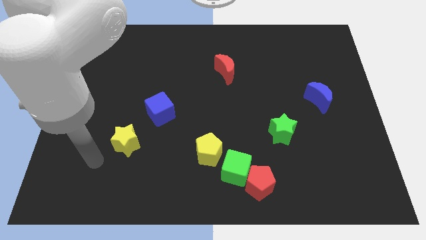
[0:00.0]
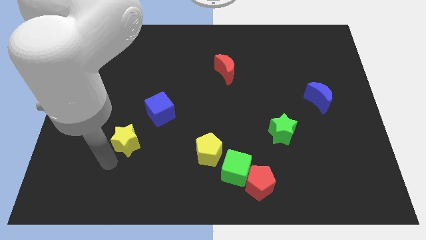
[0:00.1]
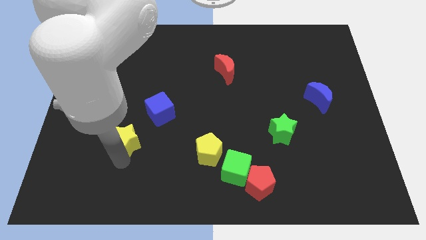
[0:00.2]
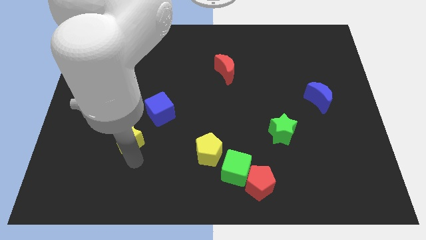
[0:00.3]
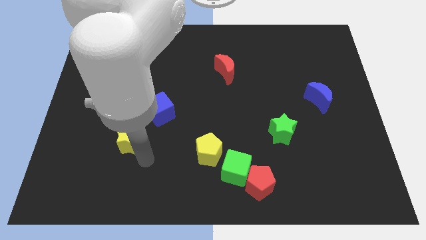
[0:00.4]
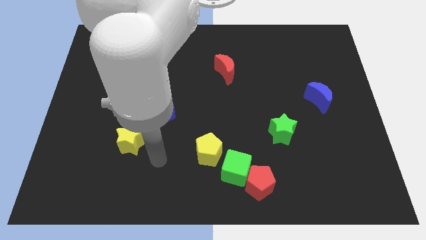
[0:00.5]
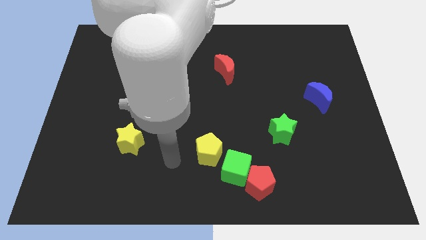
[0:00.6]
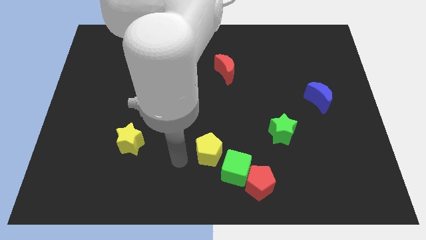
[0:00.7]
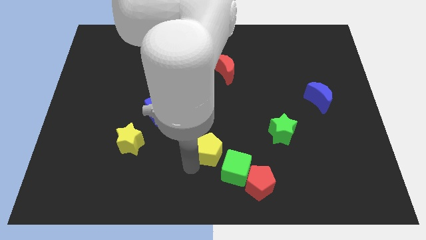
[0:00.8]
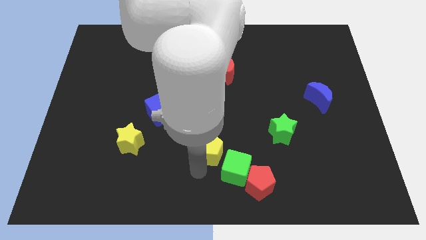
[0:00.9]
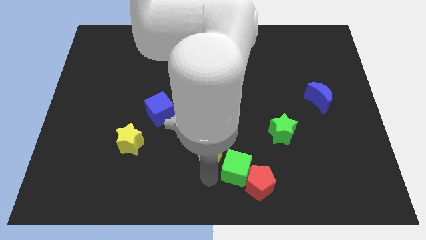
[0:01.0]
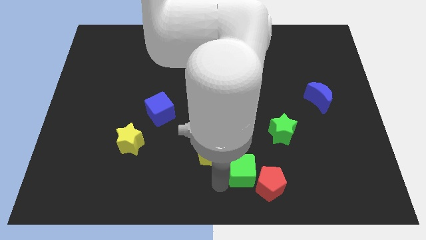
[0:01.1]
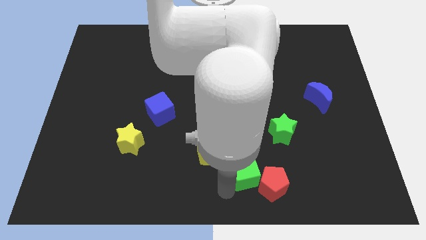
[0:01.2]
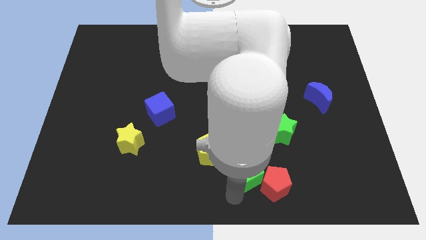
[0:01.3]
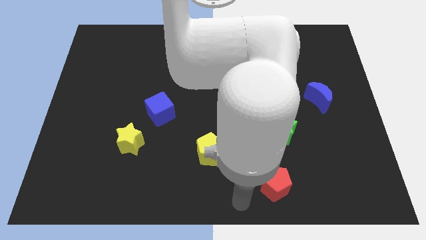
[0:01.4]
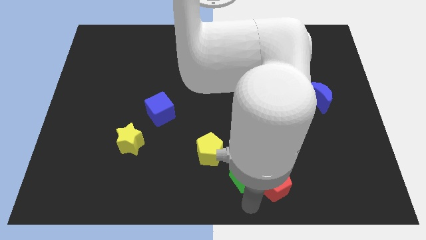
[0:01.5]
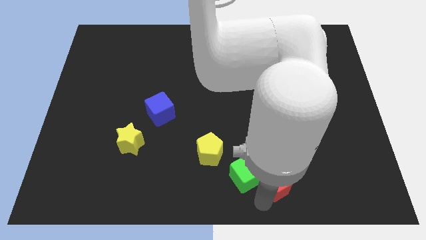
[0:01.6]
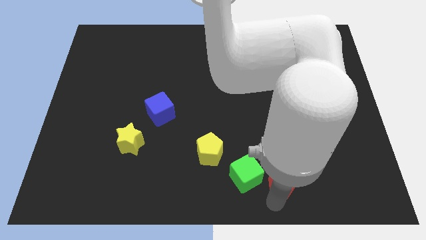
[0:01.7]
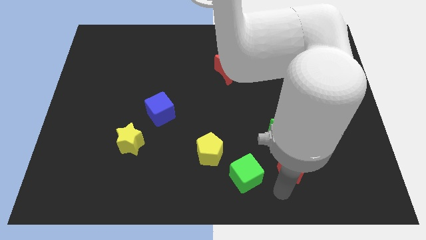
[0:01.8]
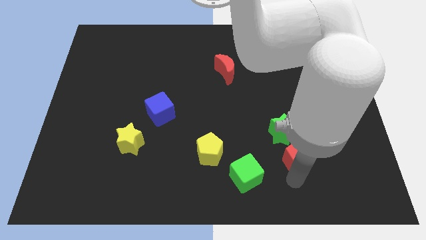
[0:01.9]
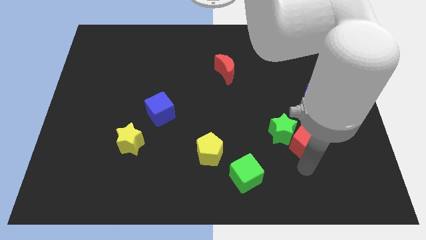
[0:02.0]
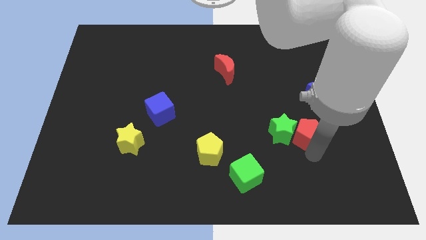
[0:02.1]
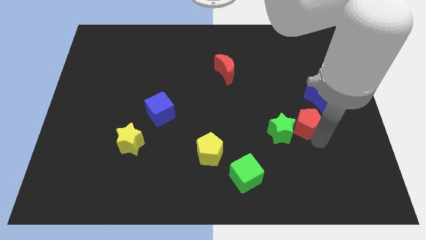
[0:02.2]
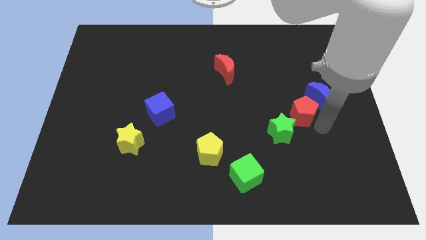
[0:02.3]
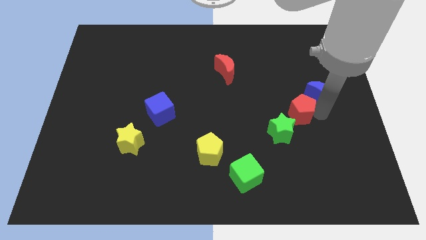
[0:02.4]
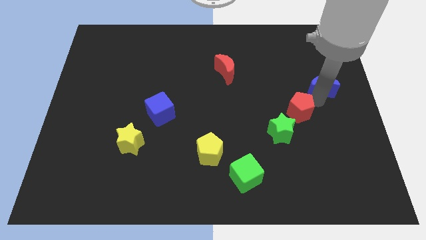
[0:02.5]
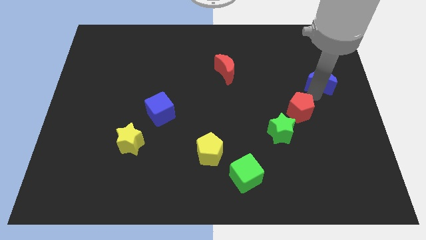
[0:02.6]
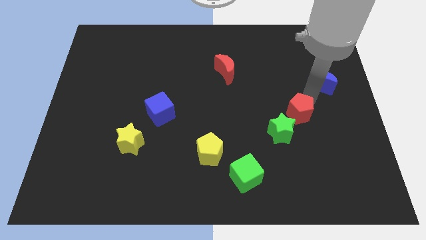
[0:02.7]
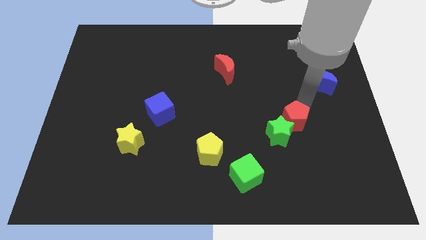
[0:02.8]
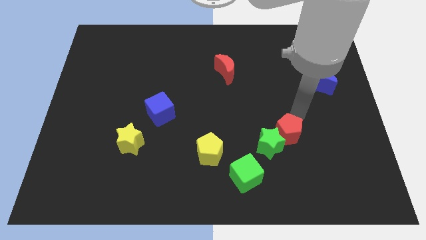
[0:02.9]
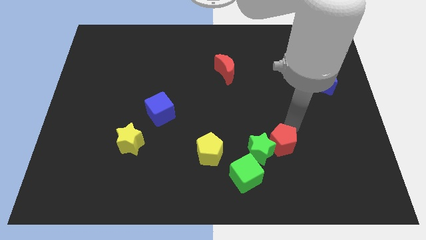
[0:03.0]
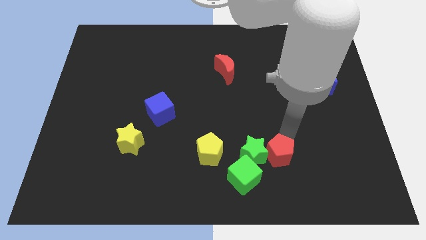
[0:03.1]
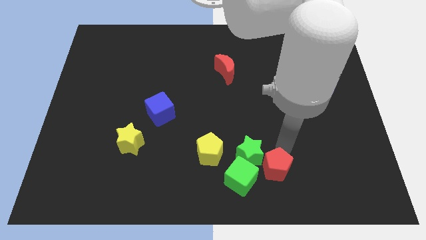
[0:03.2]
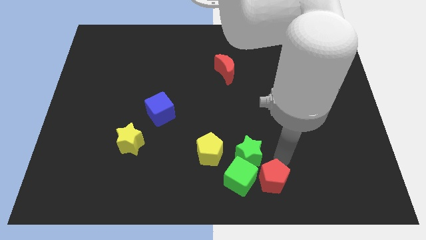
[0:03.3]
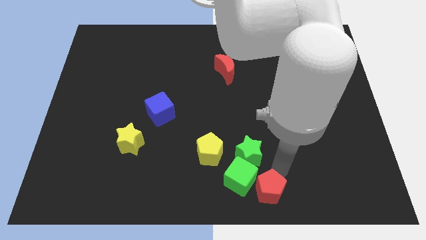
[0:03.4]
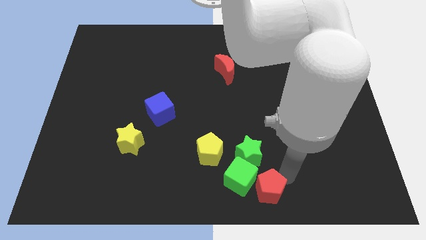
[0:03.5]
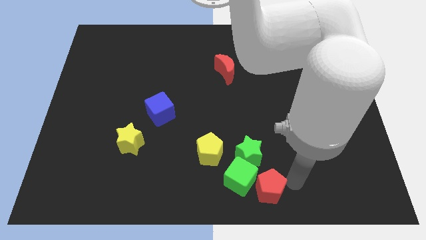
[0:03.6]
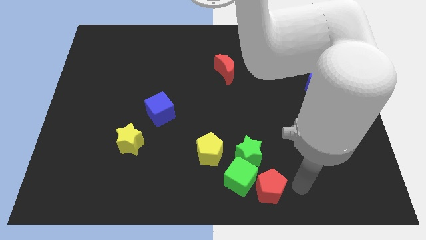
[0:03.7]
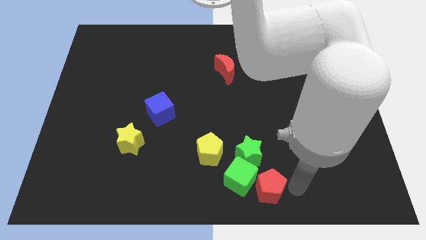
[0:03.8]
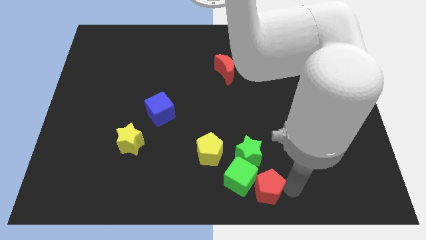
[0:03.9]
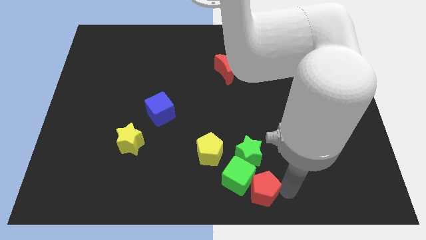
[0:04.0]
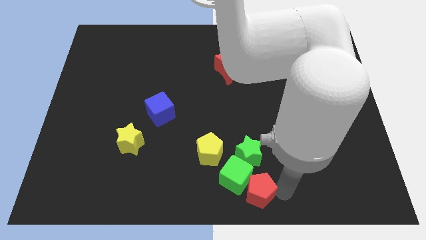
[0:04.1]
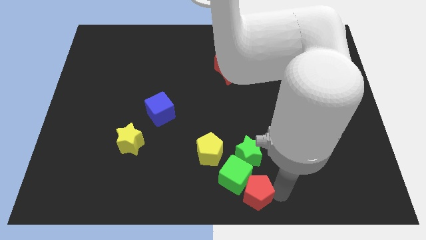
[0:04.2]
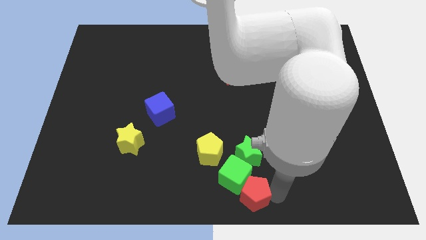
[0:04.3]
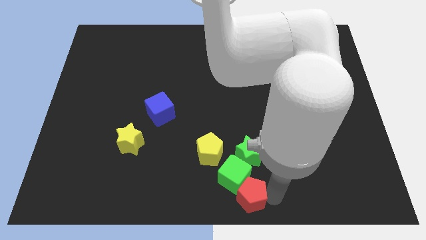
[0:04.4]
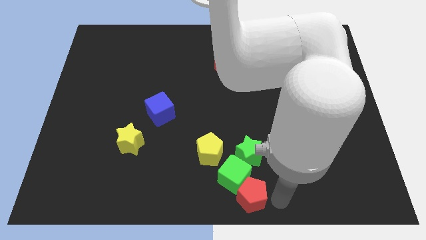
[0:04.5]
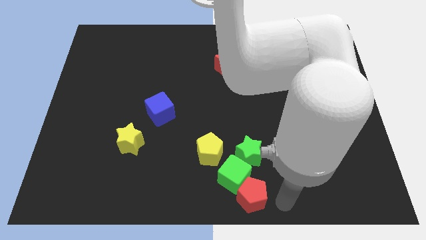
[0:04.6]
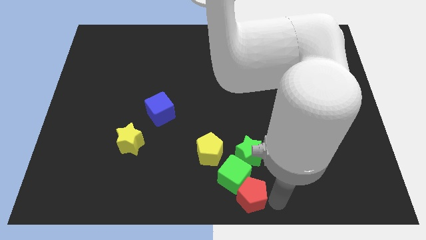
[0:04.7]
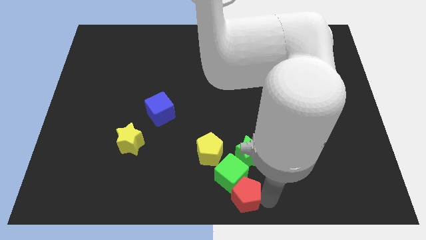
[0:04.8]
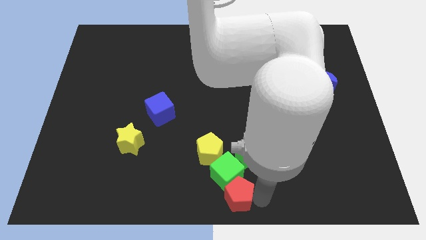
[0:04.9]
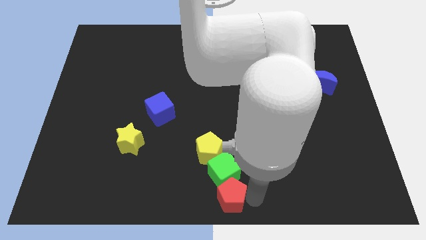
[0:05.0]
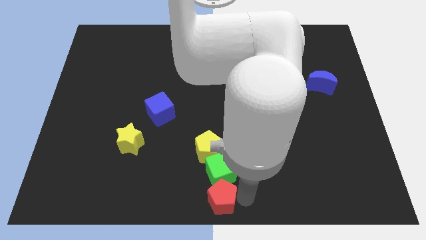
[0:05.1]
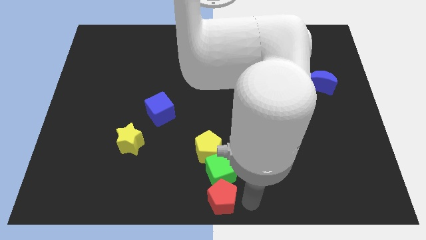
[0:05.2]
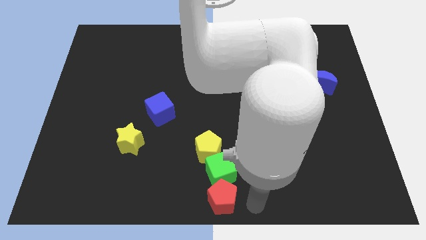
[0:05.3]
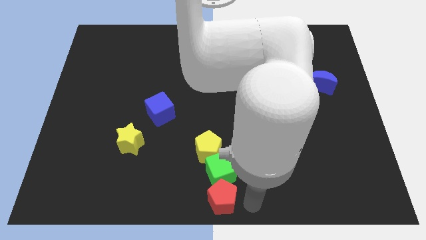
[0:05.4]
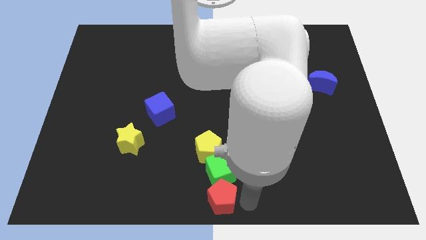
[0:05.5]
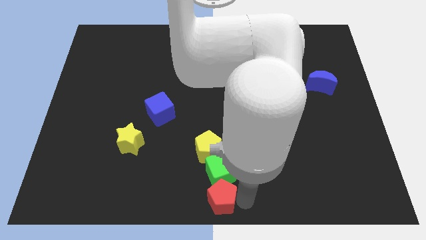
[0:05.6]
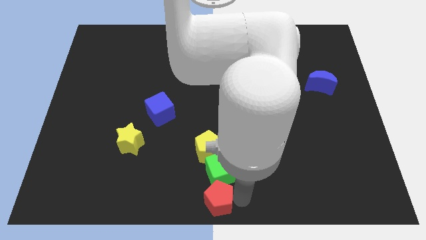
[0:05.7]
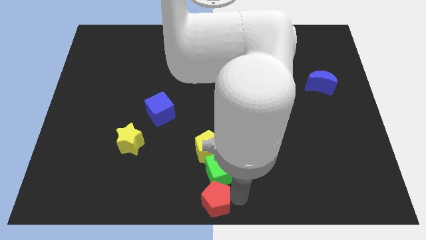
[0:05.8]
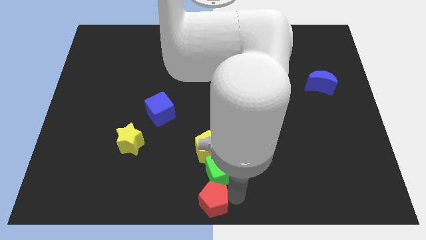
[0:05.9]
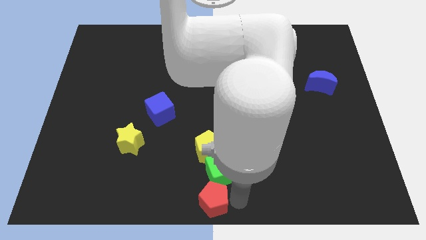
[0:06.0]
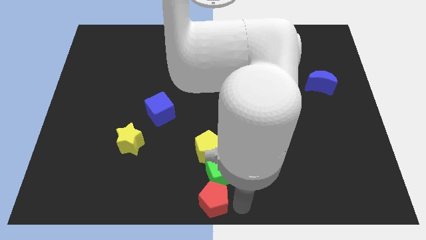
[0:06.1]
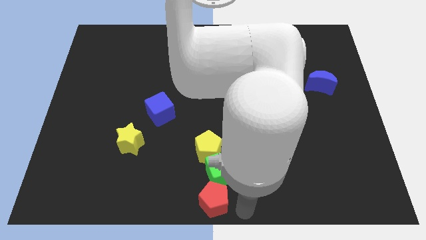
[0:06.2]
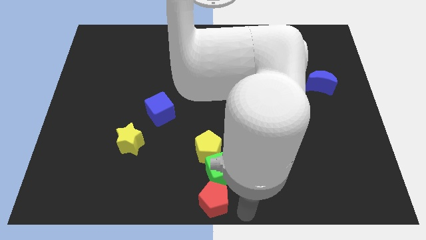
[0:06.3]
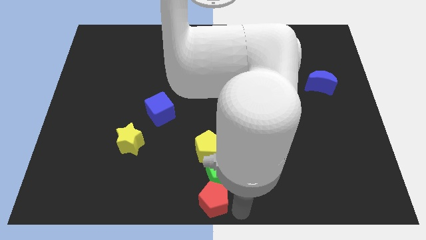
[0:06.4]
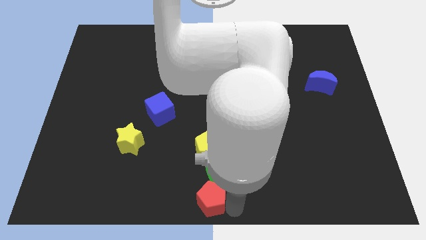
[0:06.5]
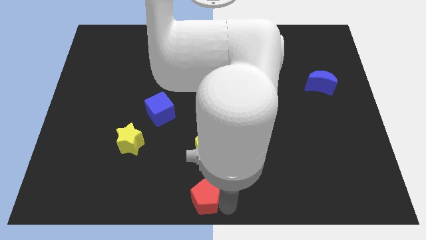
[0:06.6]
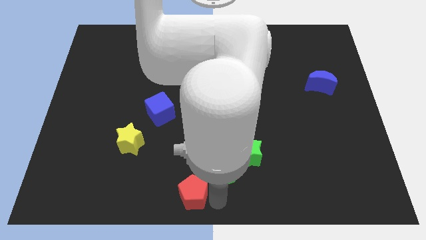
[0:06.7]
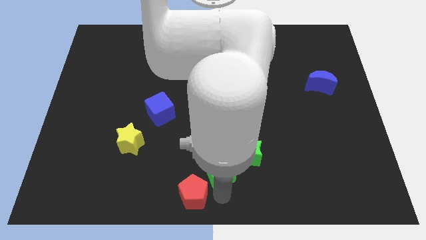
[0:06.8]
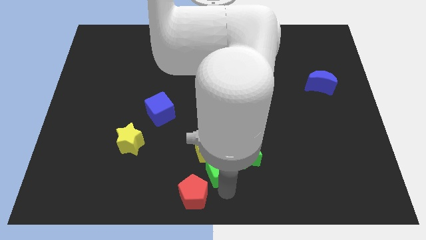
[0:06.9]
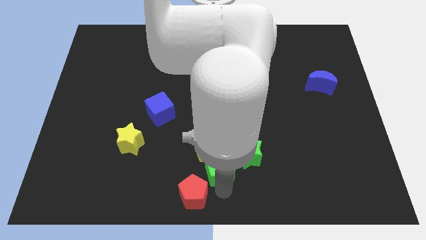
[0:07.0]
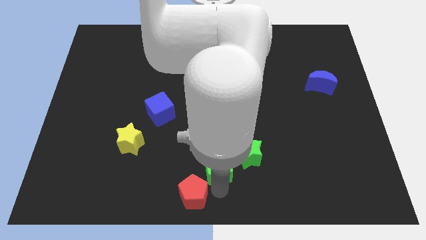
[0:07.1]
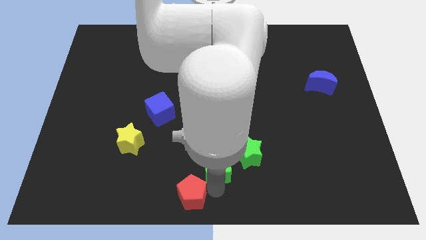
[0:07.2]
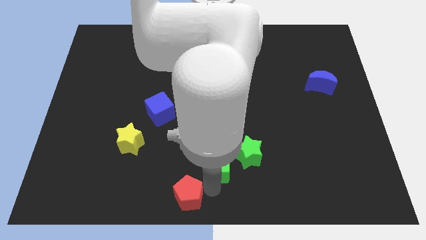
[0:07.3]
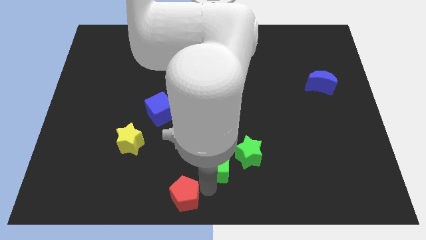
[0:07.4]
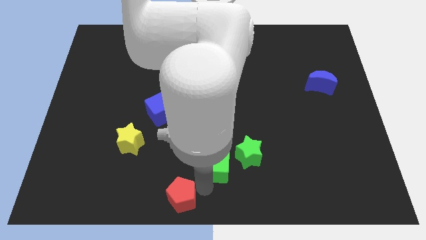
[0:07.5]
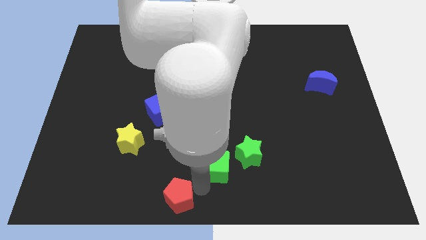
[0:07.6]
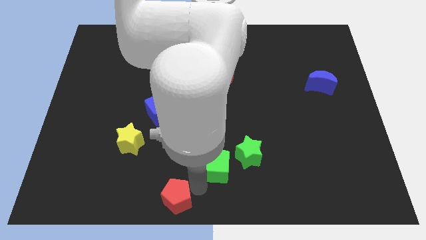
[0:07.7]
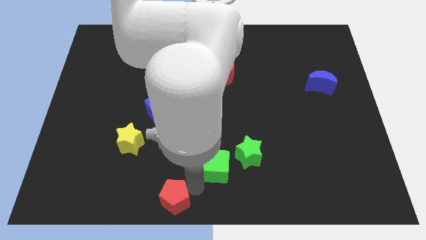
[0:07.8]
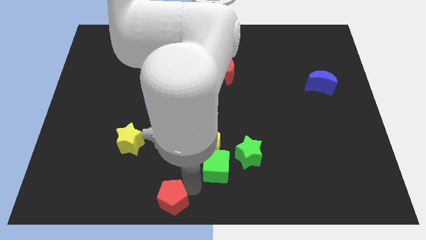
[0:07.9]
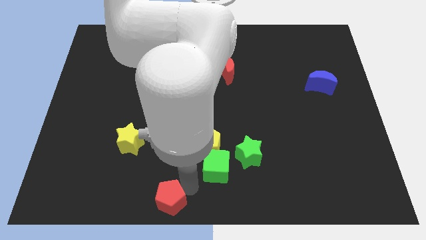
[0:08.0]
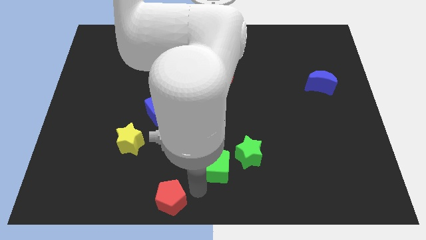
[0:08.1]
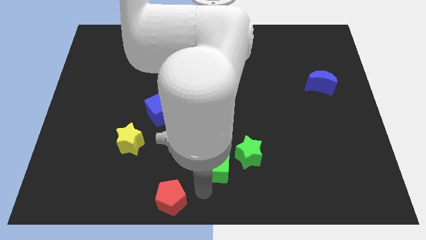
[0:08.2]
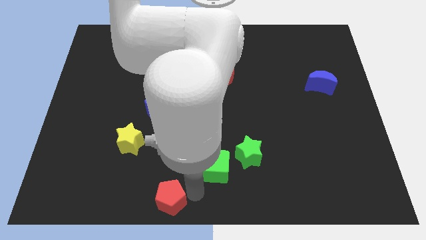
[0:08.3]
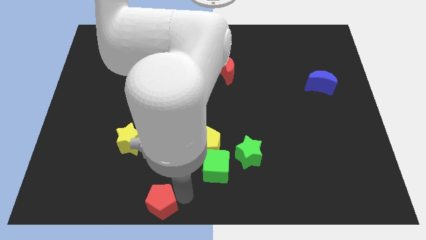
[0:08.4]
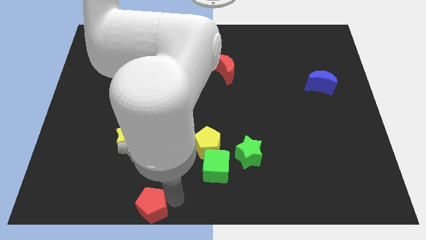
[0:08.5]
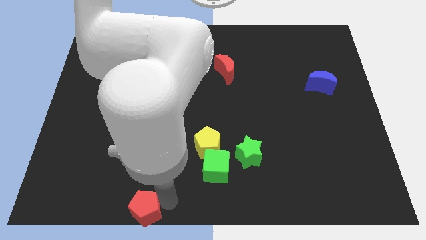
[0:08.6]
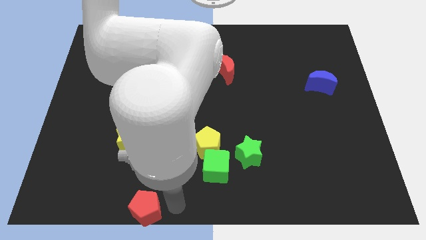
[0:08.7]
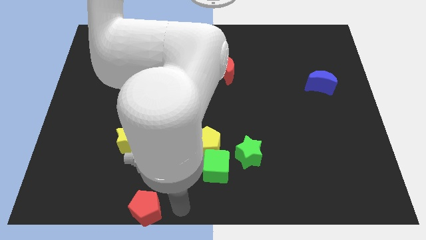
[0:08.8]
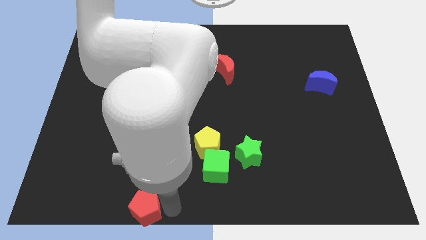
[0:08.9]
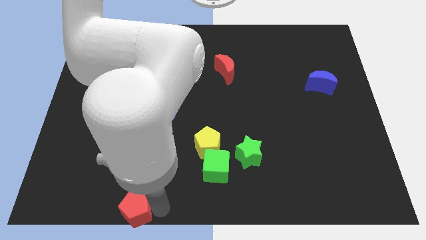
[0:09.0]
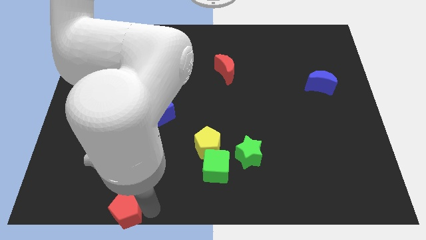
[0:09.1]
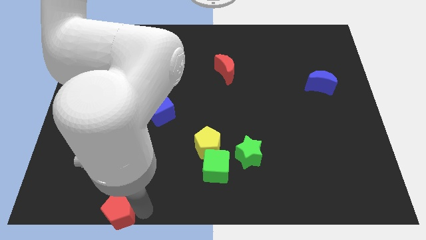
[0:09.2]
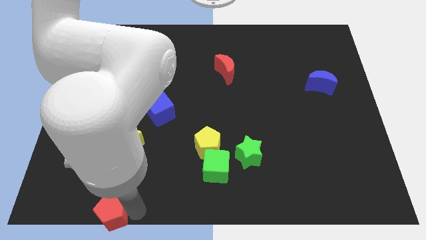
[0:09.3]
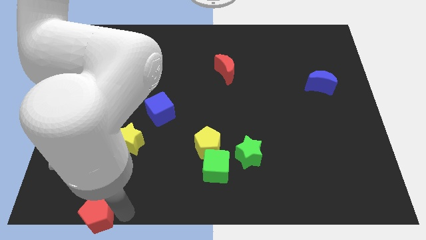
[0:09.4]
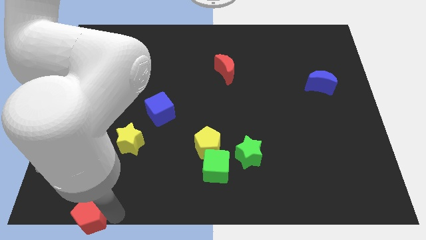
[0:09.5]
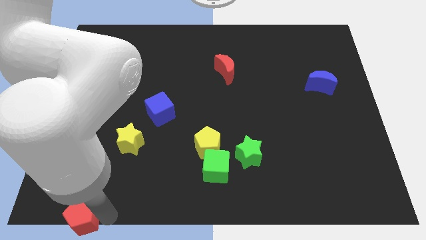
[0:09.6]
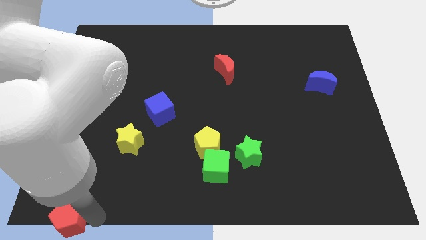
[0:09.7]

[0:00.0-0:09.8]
move the red pentagon to the lower left corner
